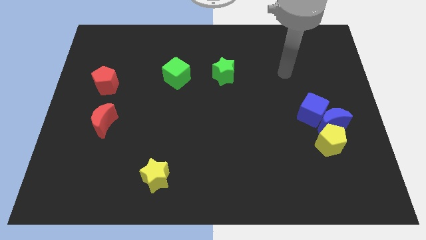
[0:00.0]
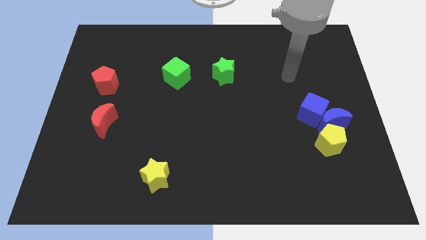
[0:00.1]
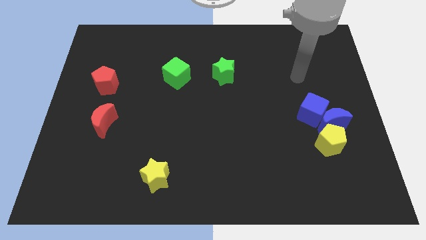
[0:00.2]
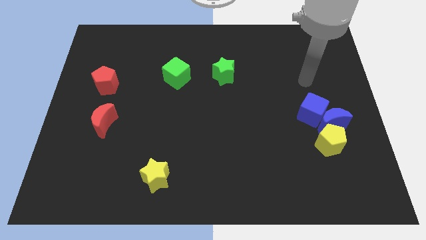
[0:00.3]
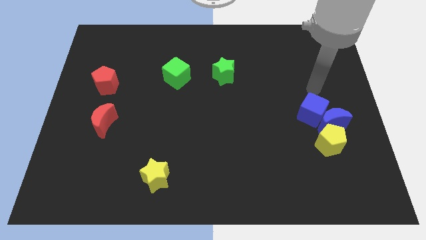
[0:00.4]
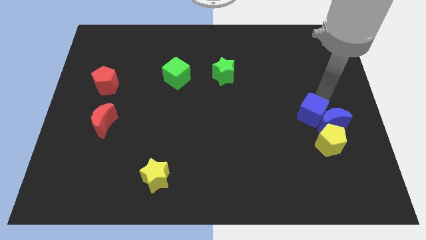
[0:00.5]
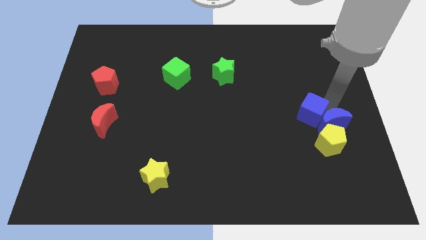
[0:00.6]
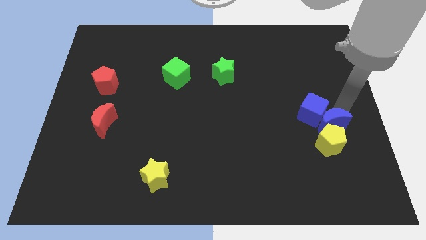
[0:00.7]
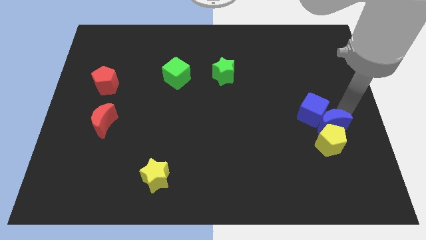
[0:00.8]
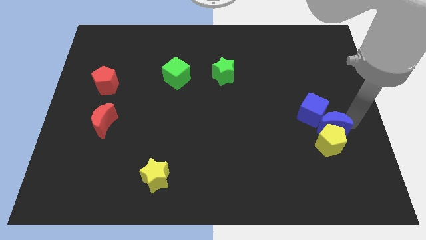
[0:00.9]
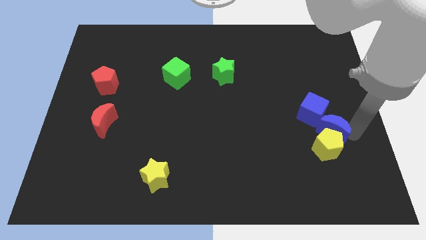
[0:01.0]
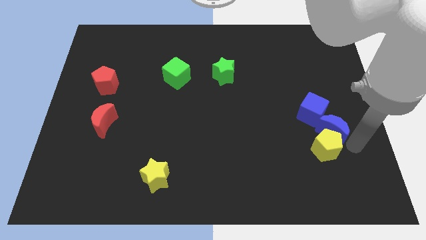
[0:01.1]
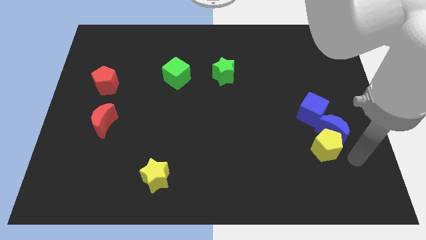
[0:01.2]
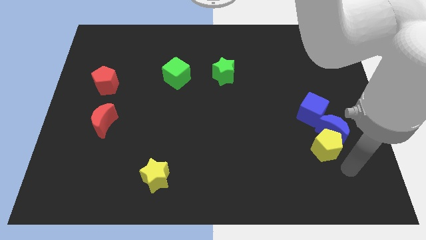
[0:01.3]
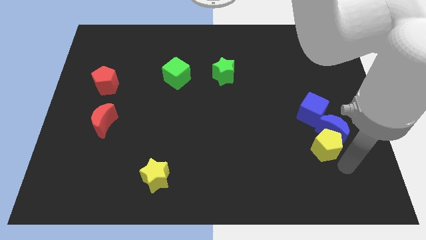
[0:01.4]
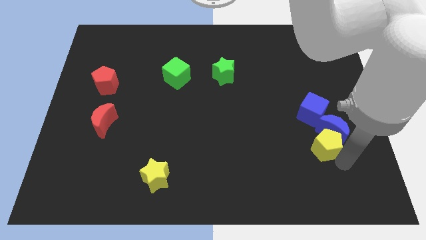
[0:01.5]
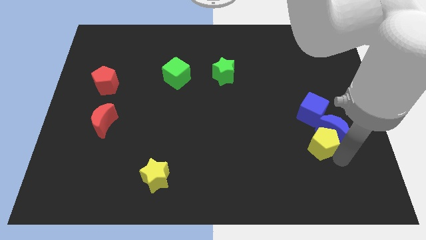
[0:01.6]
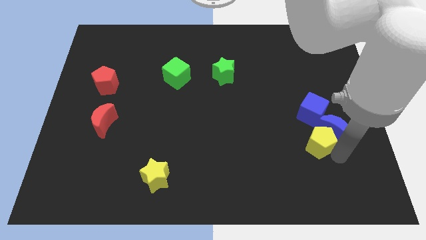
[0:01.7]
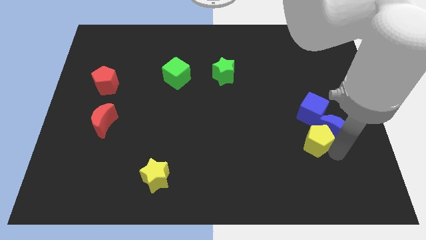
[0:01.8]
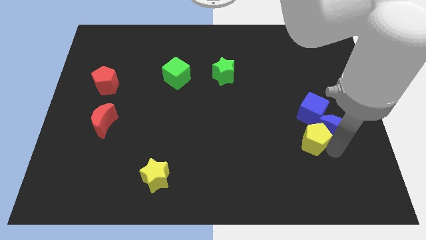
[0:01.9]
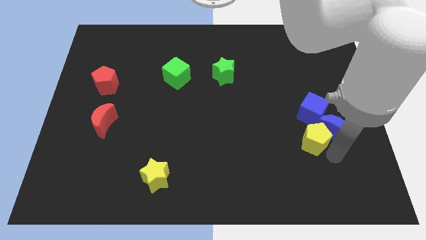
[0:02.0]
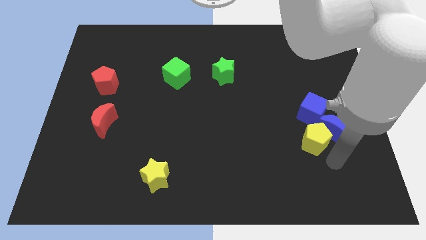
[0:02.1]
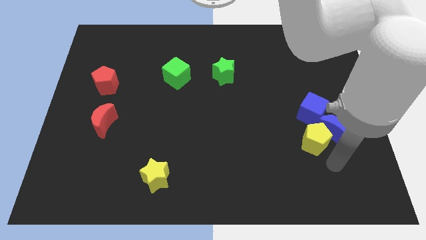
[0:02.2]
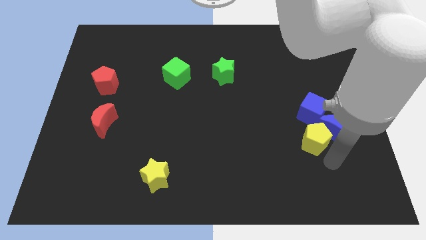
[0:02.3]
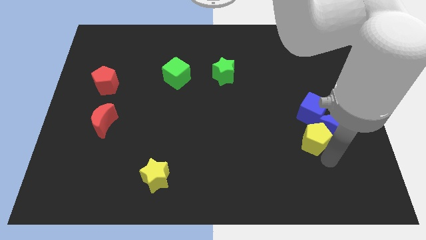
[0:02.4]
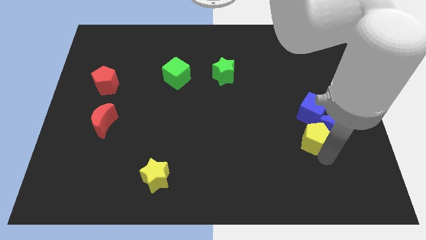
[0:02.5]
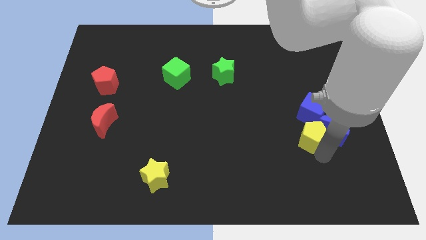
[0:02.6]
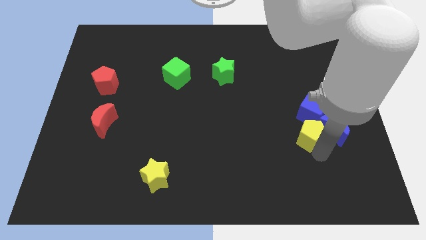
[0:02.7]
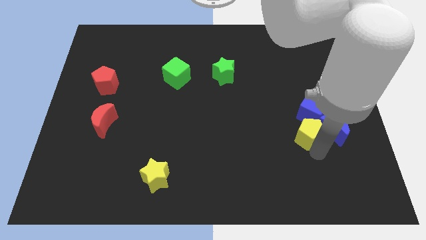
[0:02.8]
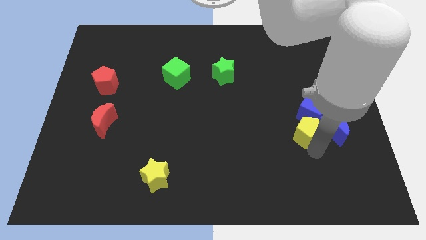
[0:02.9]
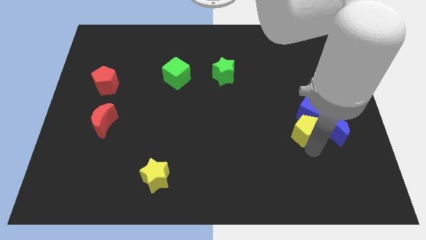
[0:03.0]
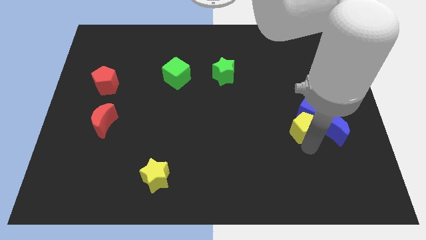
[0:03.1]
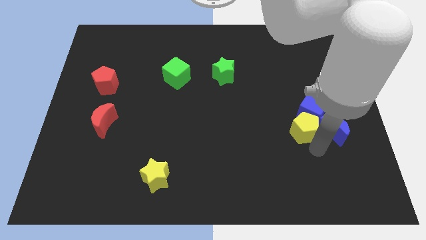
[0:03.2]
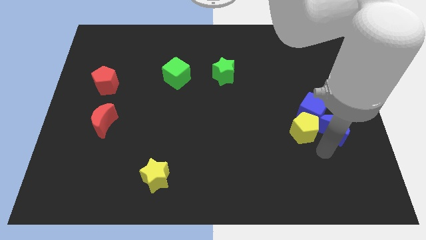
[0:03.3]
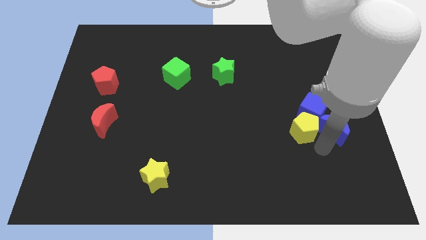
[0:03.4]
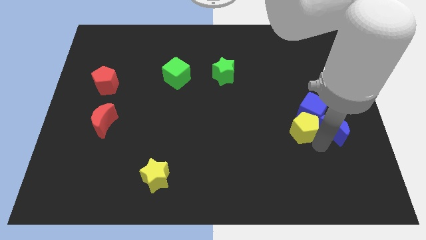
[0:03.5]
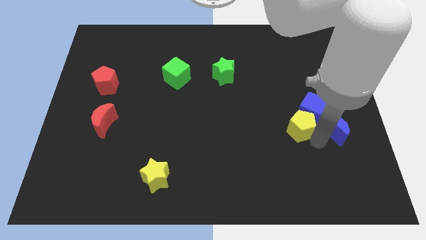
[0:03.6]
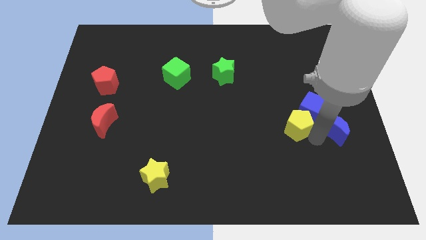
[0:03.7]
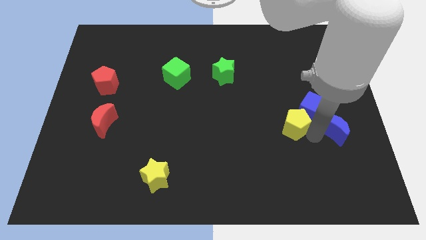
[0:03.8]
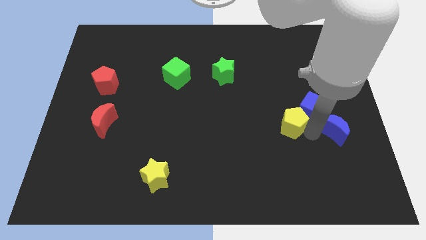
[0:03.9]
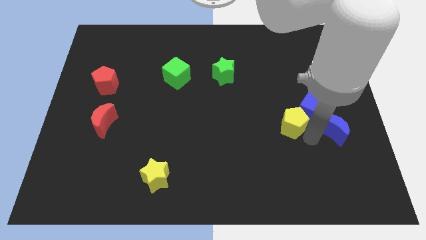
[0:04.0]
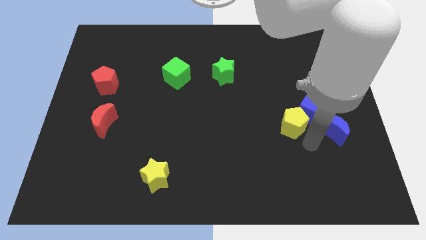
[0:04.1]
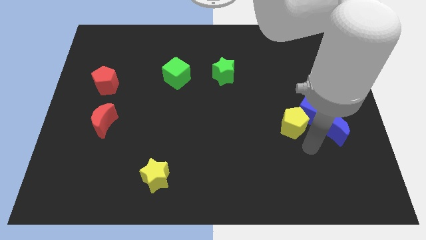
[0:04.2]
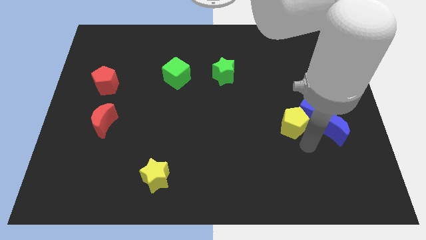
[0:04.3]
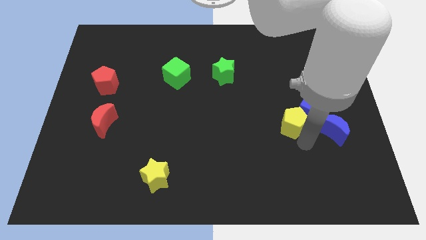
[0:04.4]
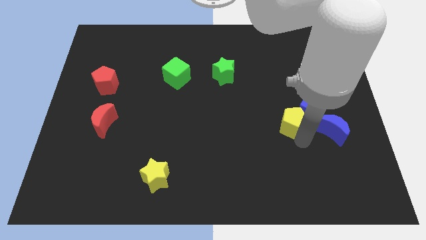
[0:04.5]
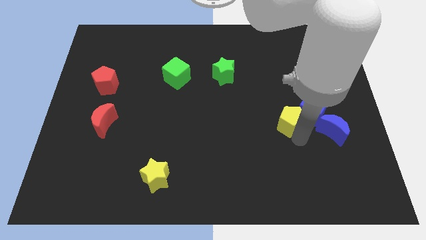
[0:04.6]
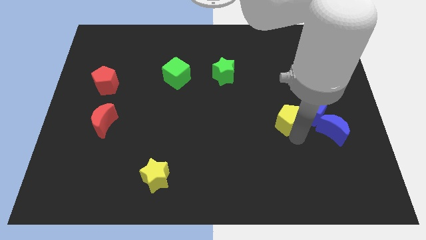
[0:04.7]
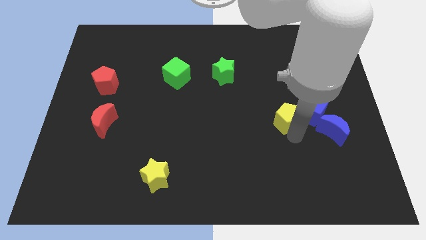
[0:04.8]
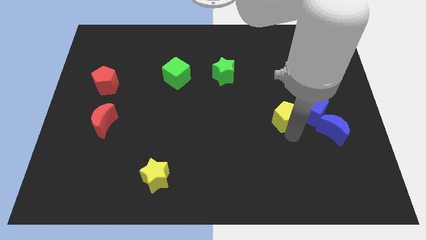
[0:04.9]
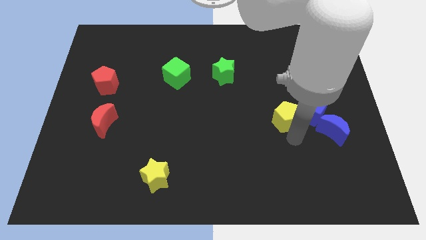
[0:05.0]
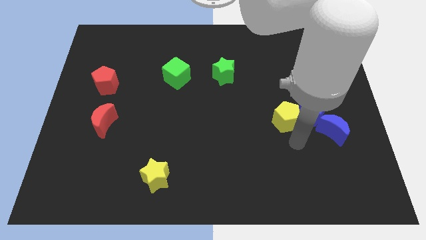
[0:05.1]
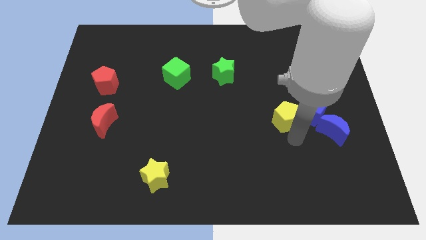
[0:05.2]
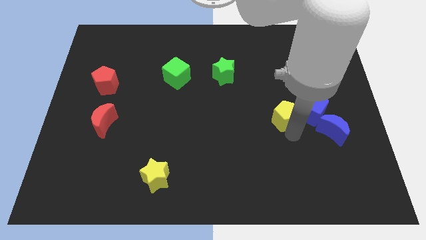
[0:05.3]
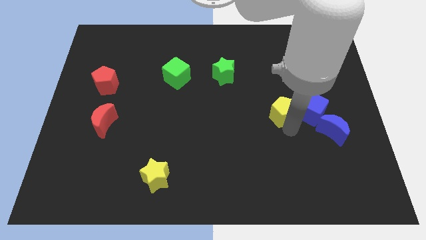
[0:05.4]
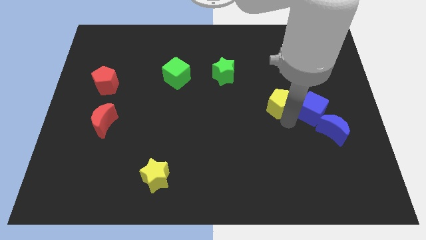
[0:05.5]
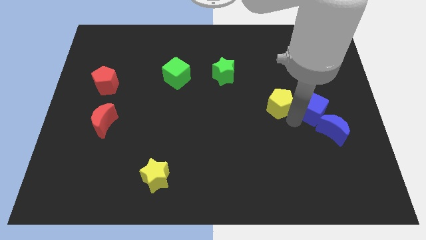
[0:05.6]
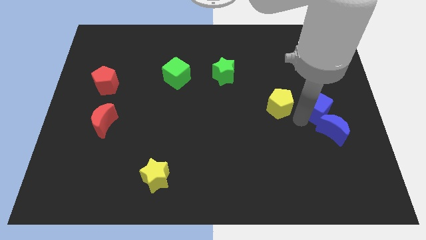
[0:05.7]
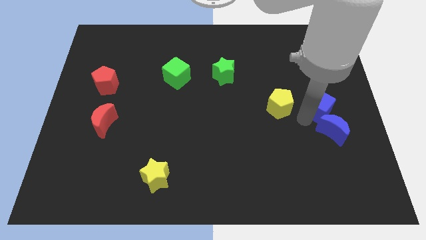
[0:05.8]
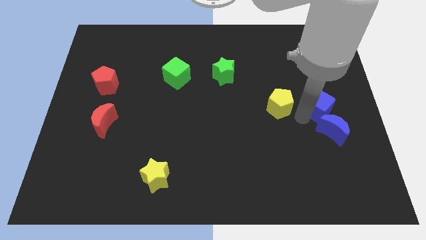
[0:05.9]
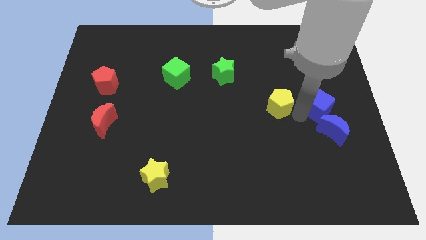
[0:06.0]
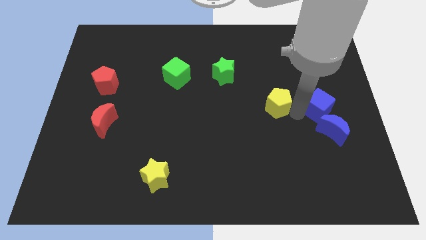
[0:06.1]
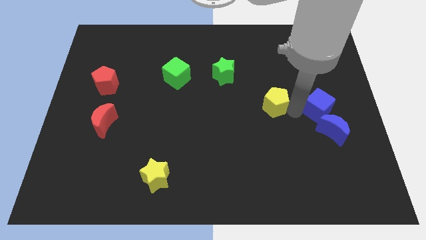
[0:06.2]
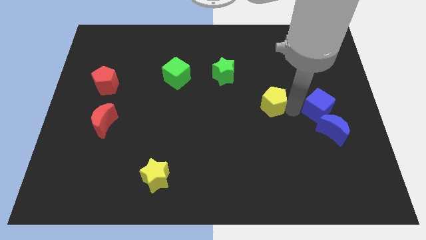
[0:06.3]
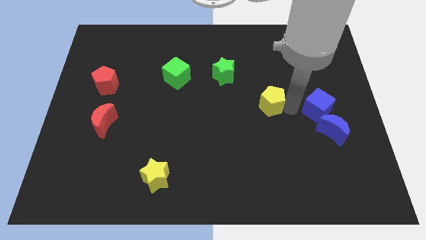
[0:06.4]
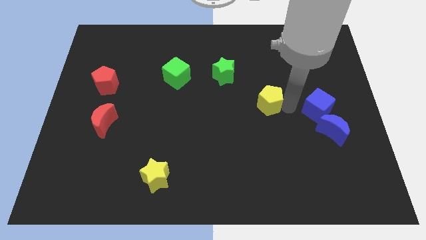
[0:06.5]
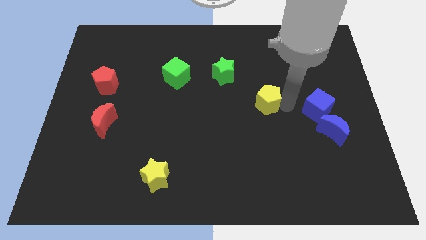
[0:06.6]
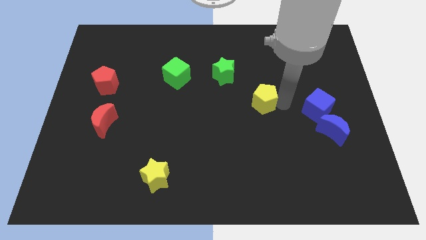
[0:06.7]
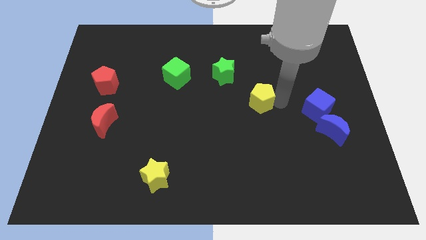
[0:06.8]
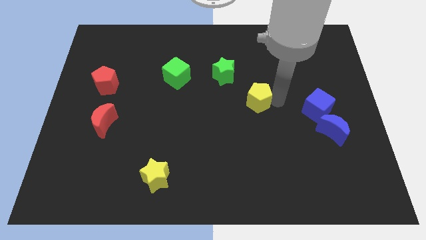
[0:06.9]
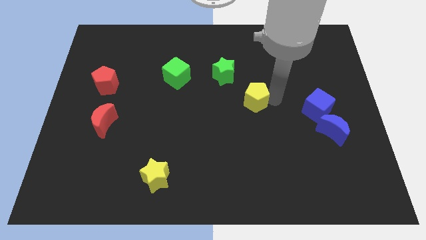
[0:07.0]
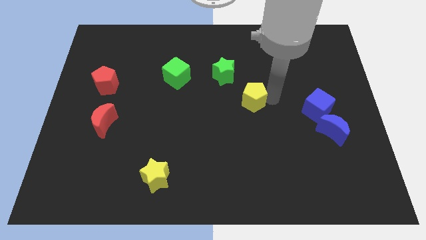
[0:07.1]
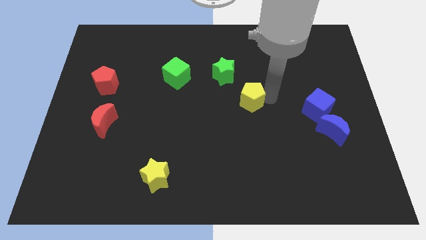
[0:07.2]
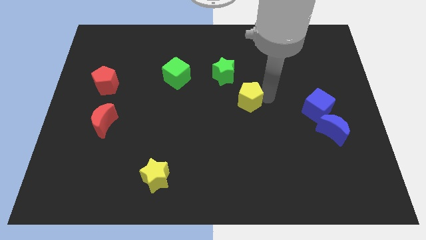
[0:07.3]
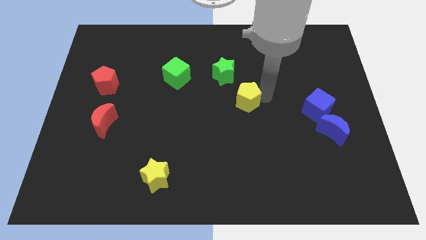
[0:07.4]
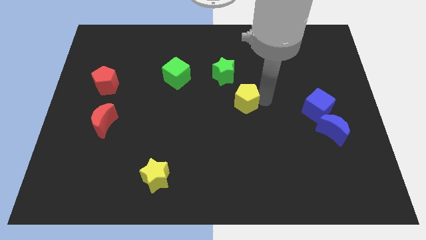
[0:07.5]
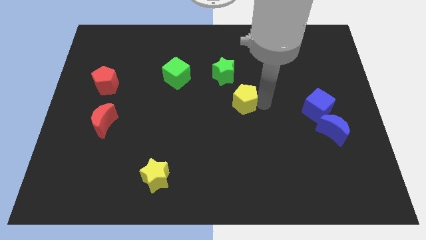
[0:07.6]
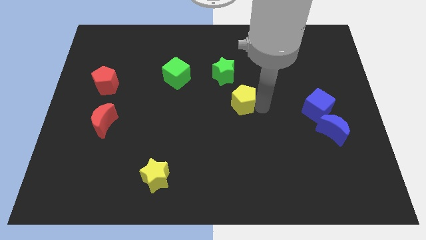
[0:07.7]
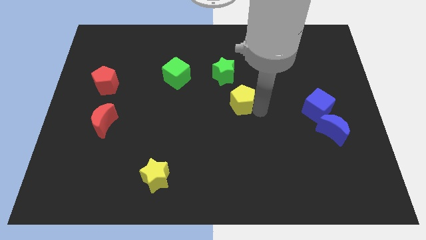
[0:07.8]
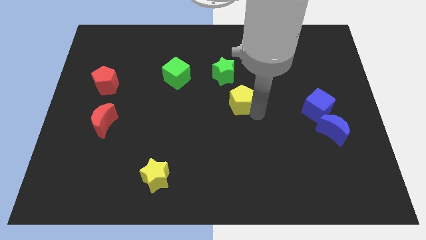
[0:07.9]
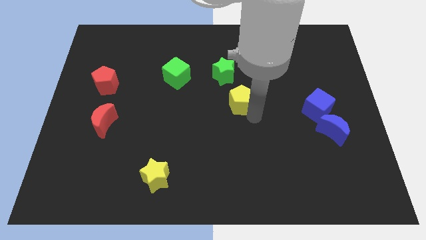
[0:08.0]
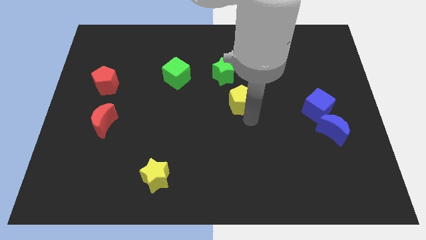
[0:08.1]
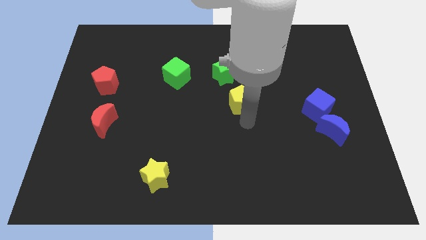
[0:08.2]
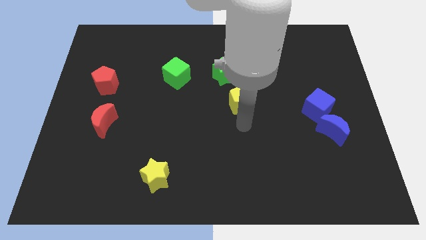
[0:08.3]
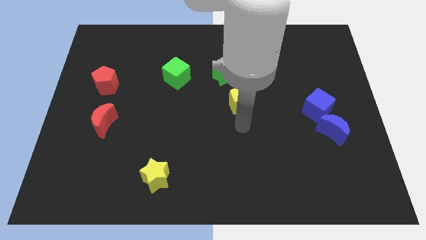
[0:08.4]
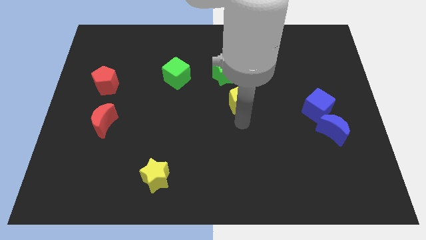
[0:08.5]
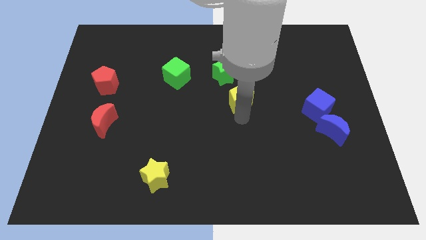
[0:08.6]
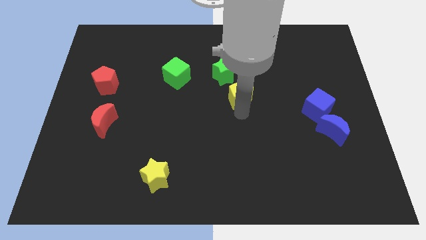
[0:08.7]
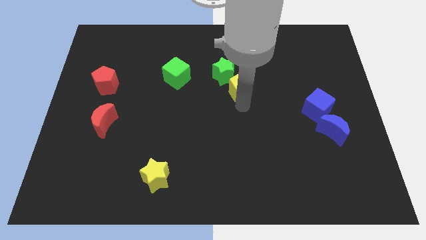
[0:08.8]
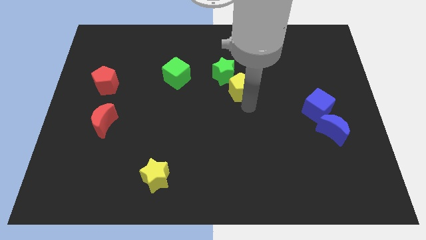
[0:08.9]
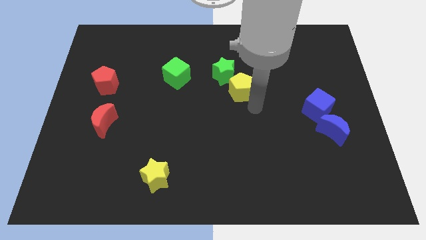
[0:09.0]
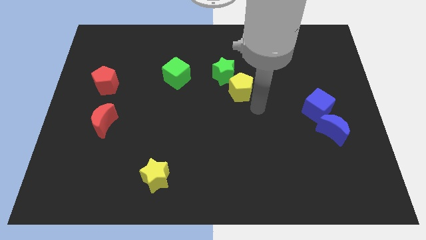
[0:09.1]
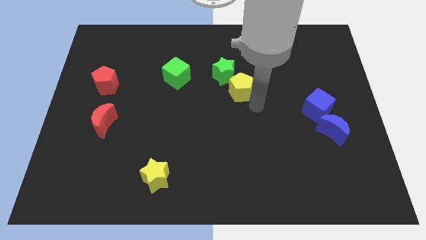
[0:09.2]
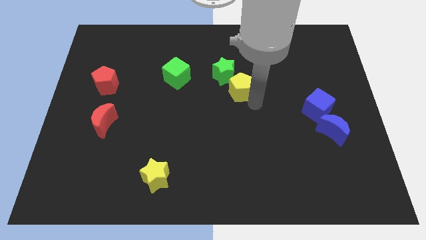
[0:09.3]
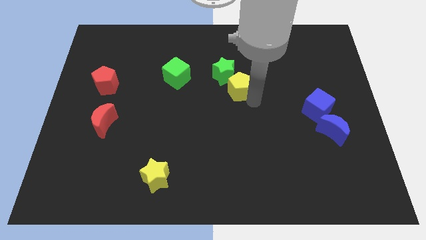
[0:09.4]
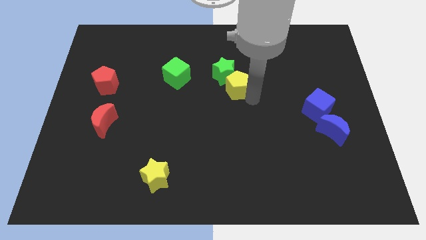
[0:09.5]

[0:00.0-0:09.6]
put the yellow pentagon to the green star
